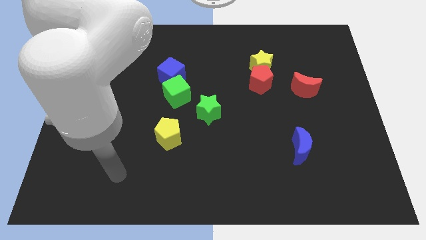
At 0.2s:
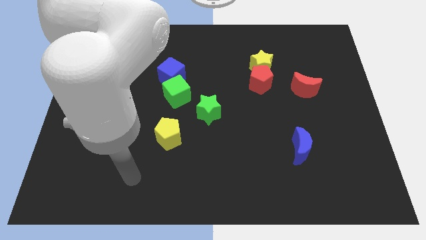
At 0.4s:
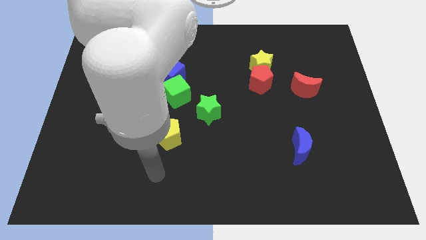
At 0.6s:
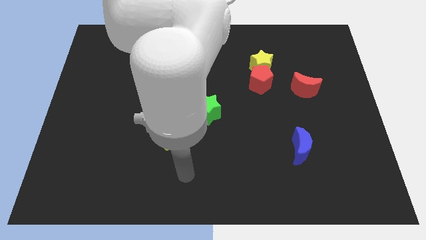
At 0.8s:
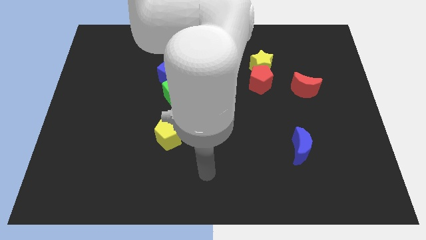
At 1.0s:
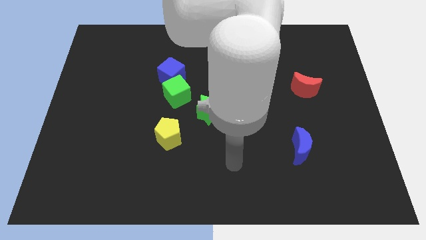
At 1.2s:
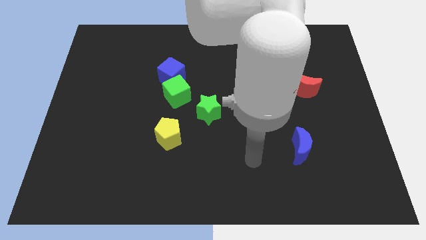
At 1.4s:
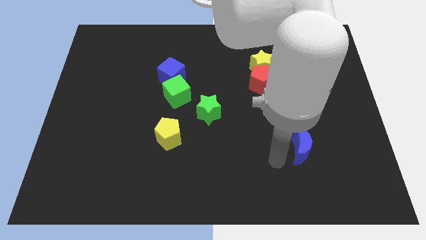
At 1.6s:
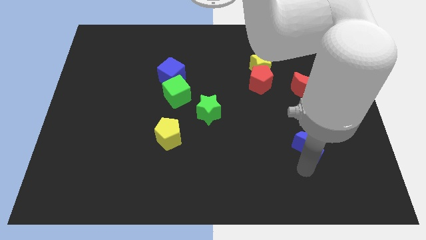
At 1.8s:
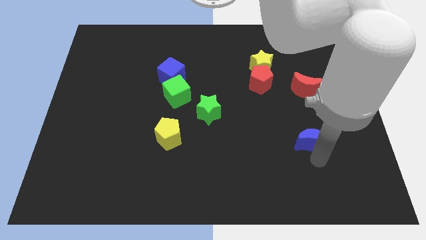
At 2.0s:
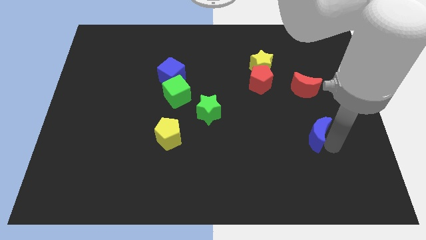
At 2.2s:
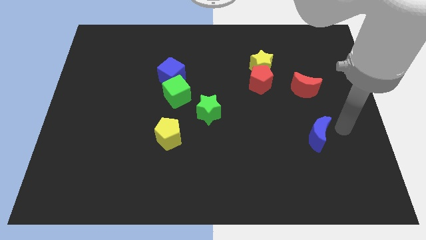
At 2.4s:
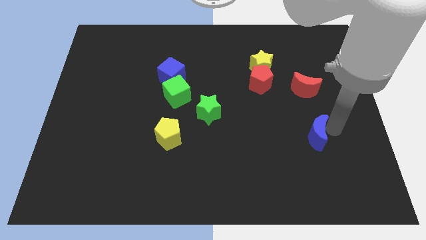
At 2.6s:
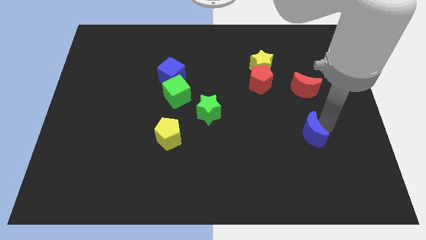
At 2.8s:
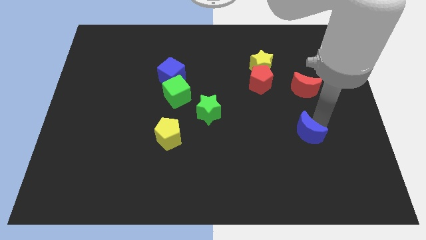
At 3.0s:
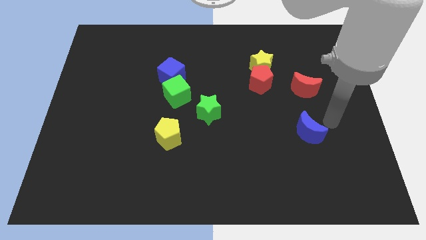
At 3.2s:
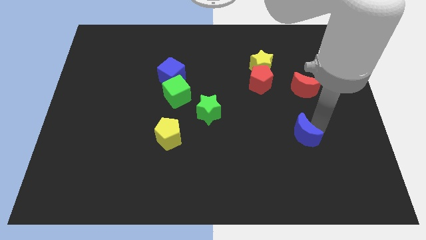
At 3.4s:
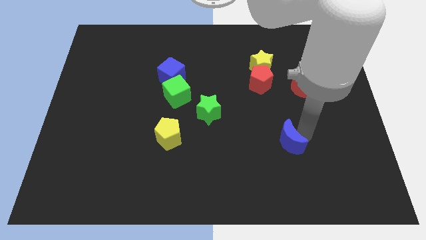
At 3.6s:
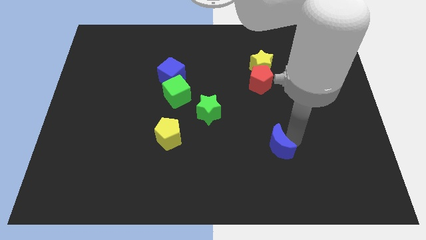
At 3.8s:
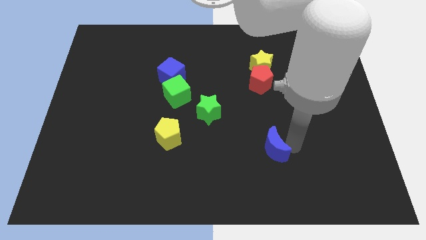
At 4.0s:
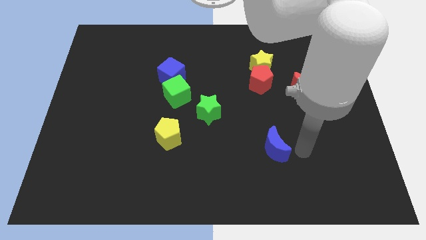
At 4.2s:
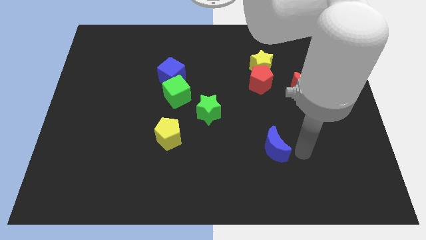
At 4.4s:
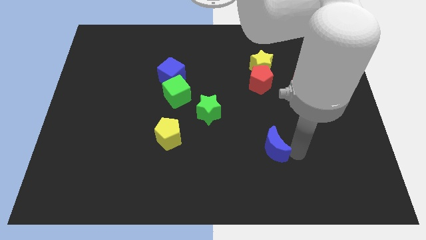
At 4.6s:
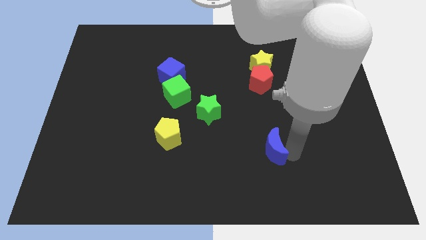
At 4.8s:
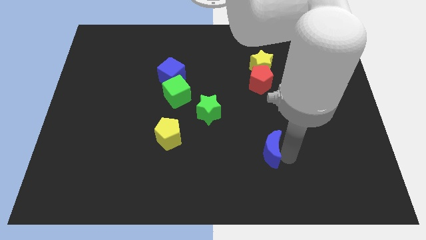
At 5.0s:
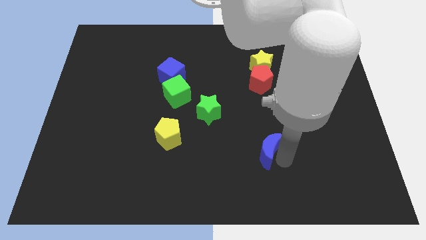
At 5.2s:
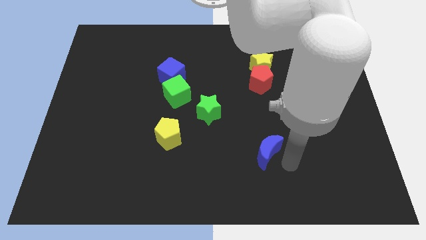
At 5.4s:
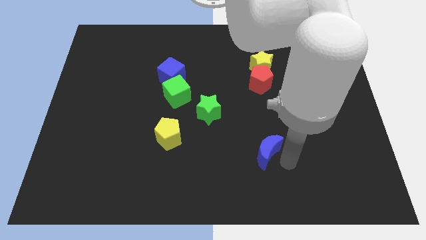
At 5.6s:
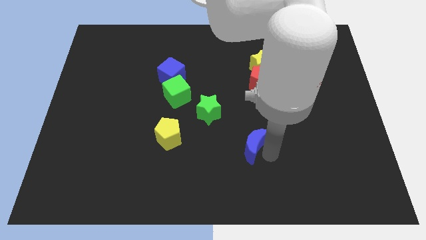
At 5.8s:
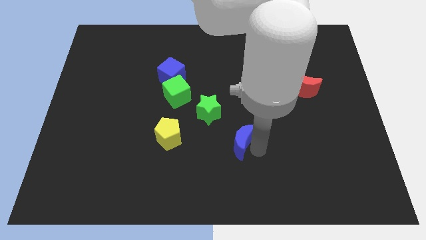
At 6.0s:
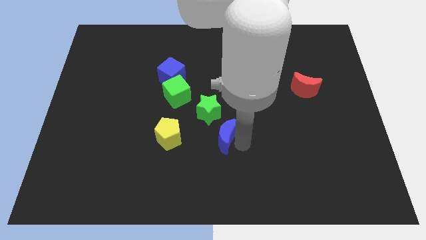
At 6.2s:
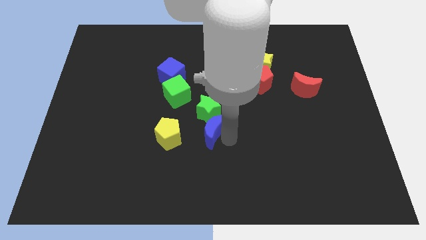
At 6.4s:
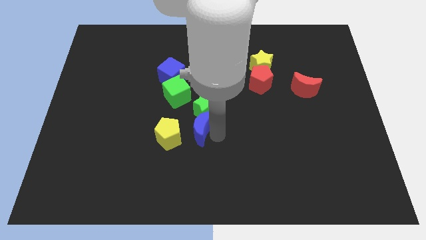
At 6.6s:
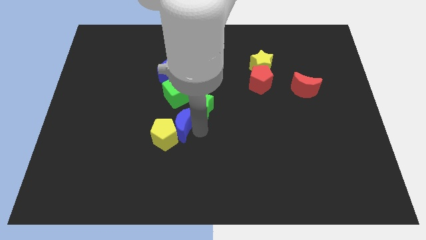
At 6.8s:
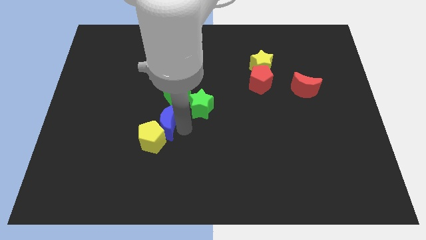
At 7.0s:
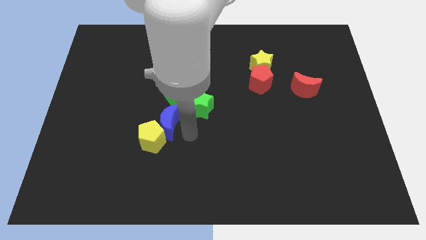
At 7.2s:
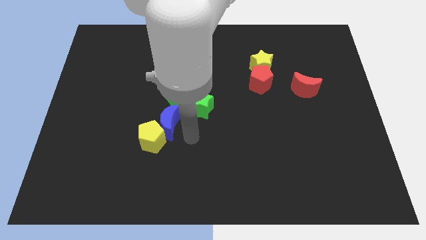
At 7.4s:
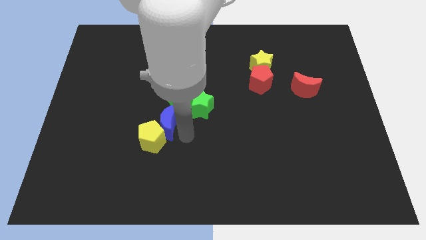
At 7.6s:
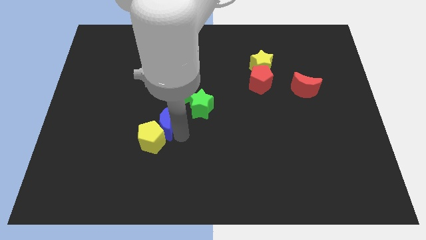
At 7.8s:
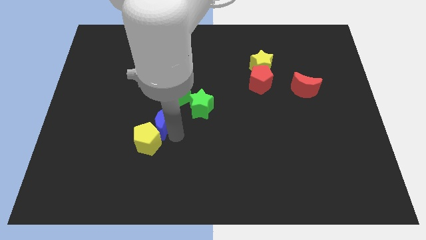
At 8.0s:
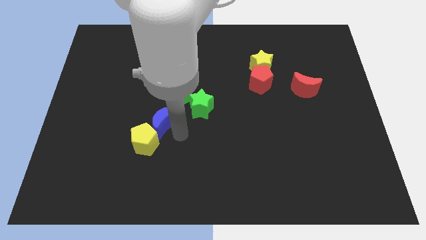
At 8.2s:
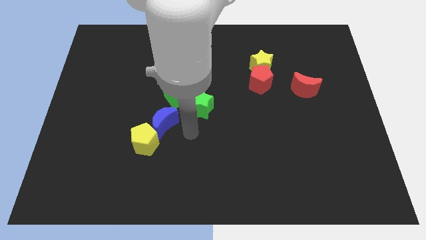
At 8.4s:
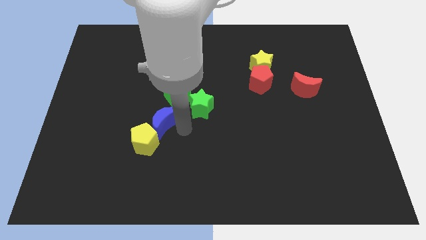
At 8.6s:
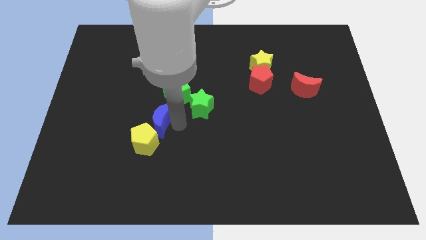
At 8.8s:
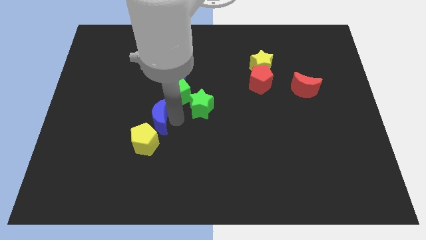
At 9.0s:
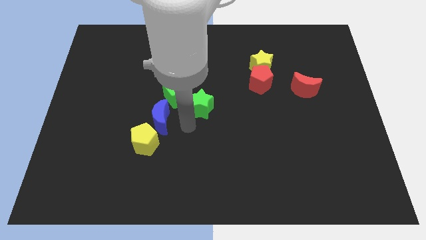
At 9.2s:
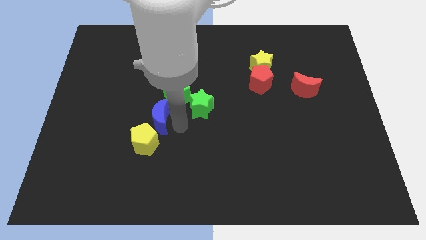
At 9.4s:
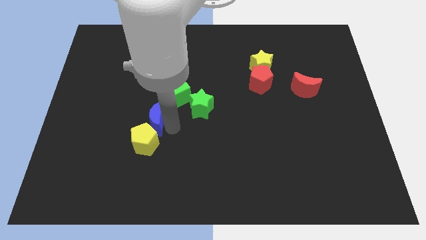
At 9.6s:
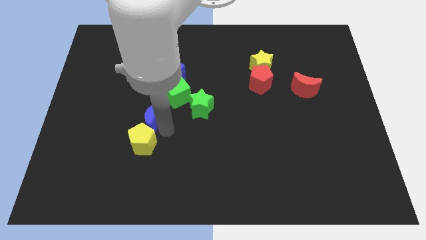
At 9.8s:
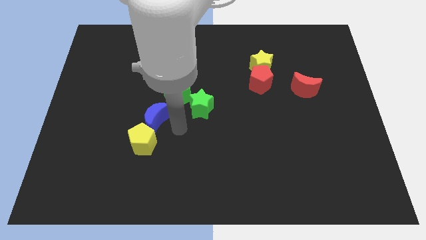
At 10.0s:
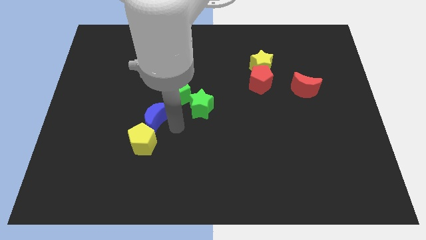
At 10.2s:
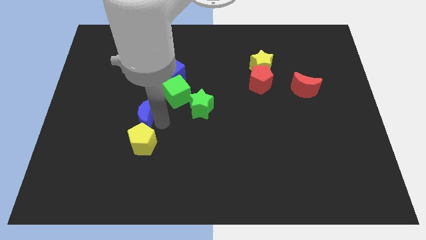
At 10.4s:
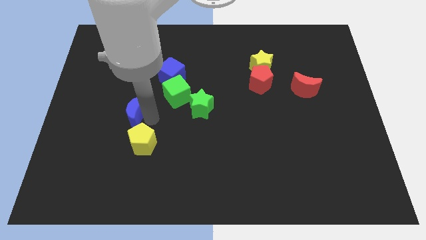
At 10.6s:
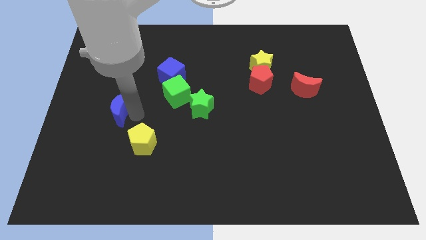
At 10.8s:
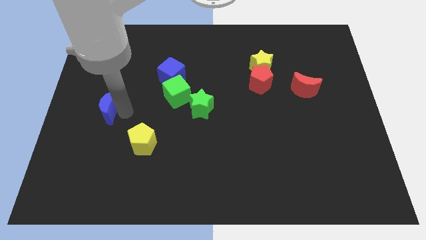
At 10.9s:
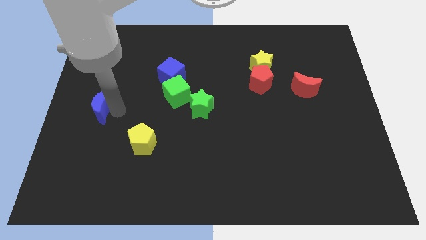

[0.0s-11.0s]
slide the blue moon to the left side of the board

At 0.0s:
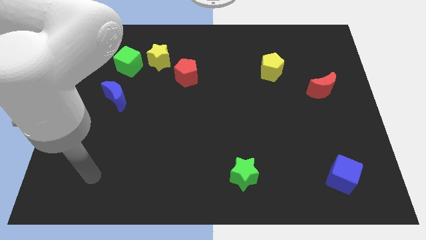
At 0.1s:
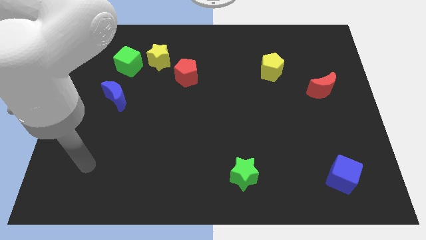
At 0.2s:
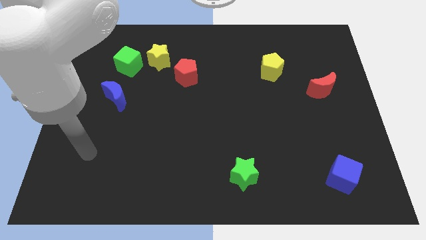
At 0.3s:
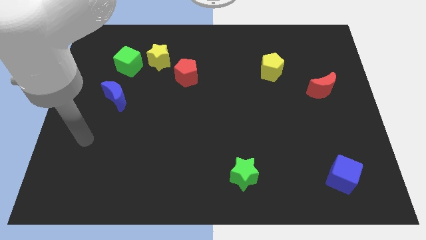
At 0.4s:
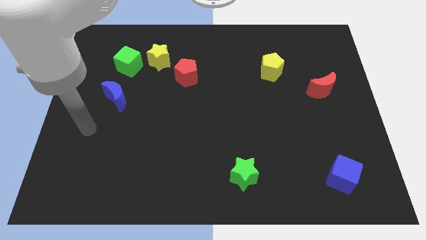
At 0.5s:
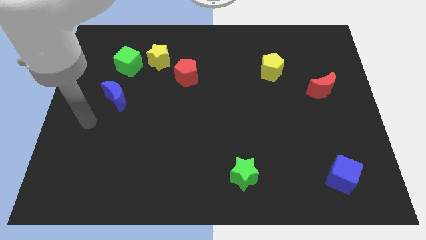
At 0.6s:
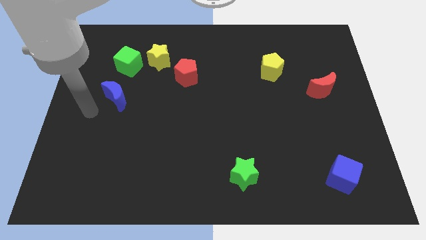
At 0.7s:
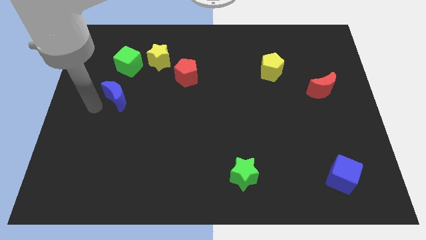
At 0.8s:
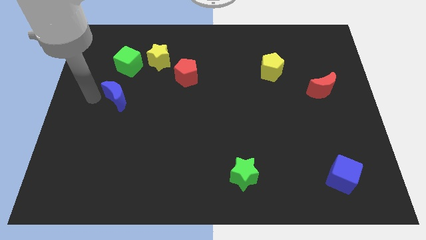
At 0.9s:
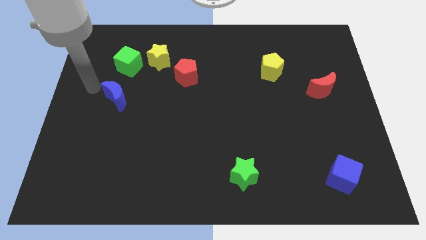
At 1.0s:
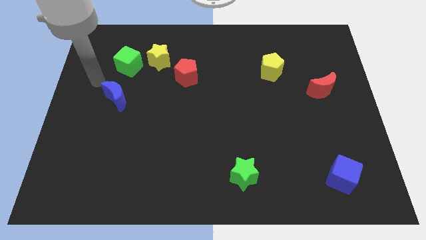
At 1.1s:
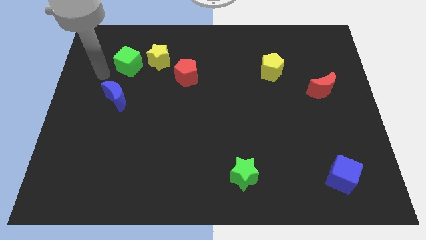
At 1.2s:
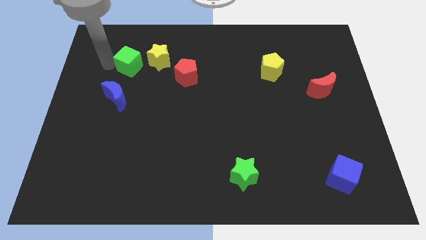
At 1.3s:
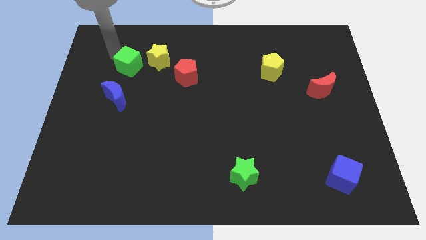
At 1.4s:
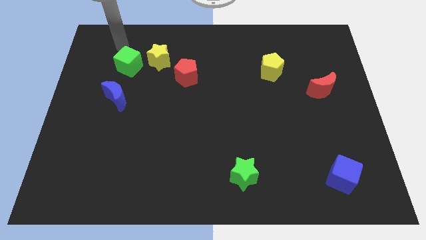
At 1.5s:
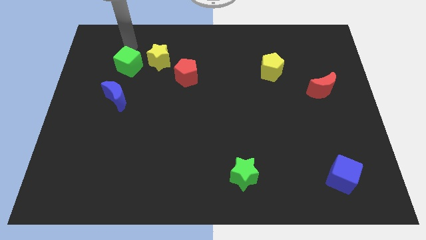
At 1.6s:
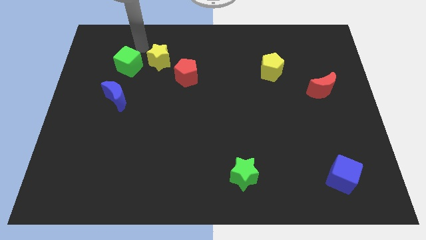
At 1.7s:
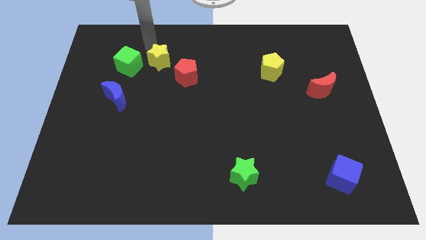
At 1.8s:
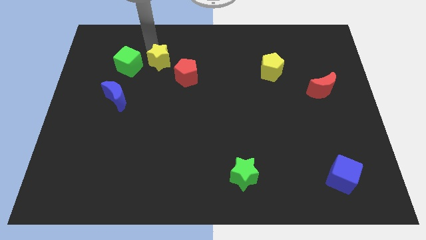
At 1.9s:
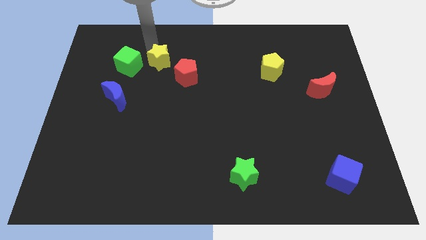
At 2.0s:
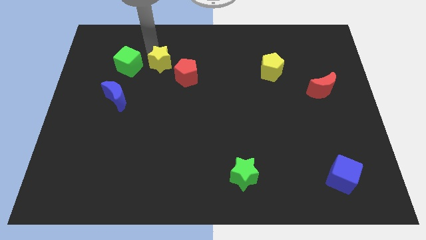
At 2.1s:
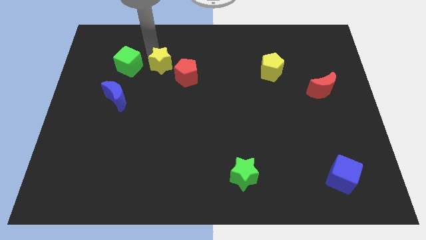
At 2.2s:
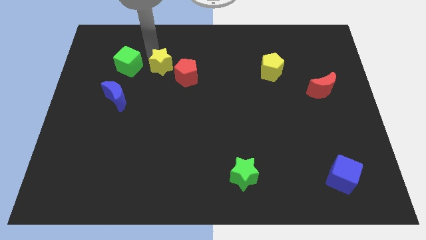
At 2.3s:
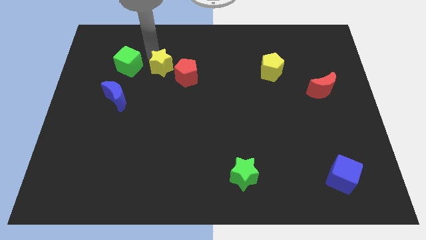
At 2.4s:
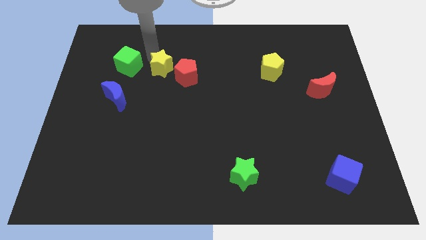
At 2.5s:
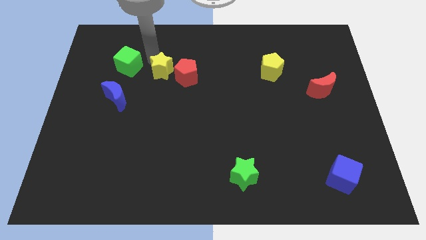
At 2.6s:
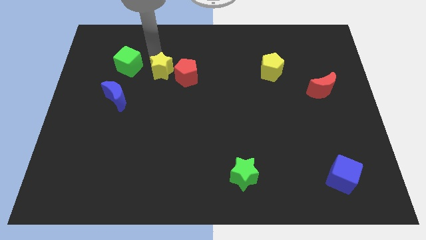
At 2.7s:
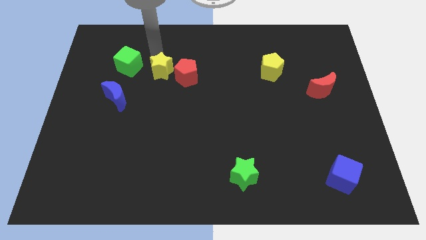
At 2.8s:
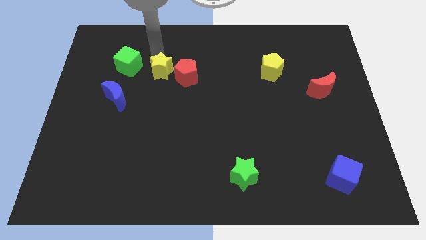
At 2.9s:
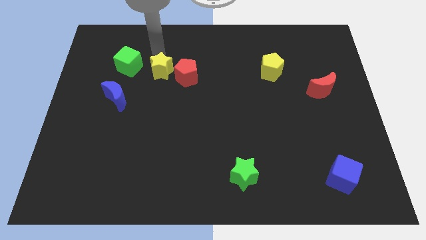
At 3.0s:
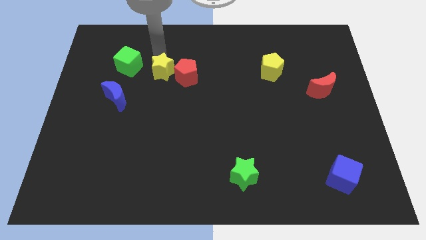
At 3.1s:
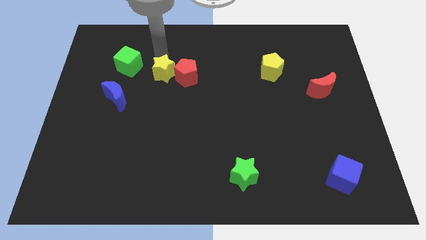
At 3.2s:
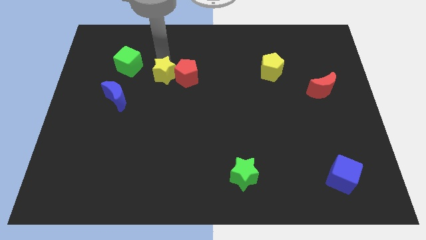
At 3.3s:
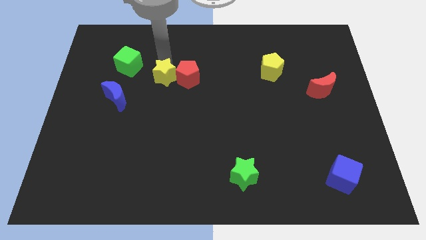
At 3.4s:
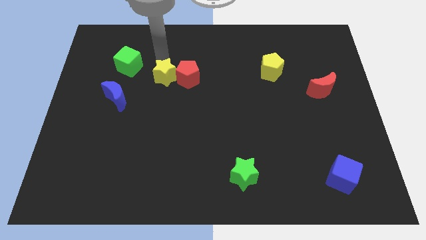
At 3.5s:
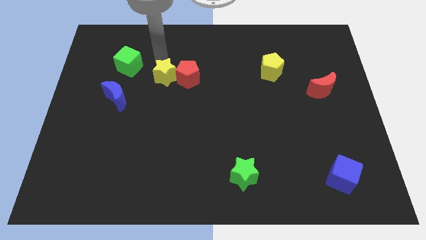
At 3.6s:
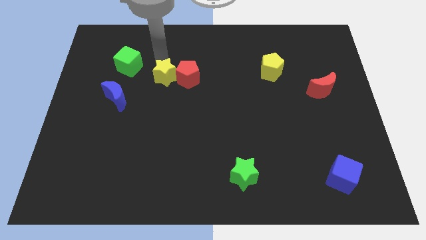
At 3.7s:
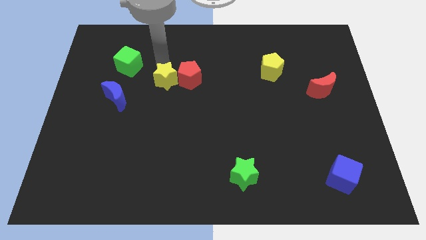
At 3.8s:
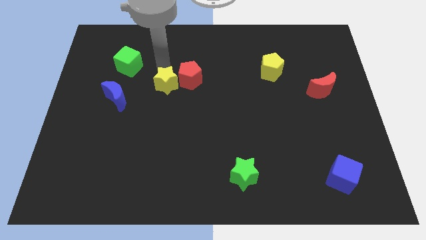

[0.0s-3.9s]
push the yellow star to the middle
